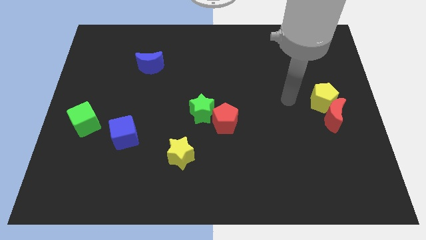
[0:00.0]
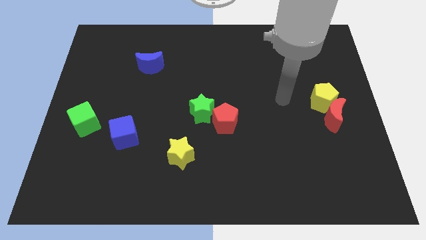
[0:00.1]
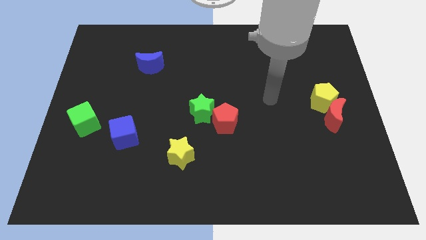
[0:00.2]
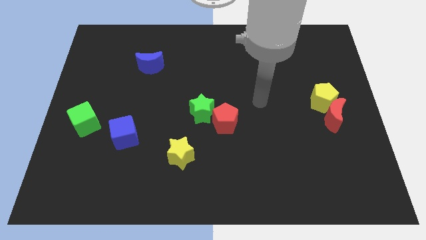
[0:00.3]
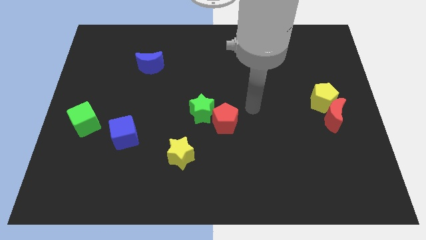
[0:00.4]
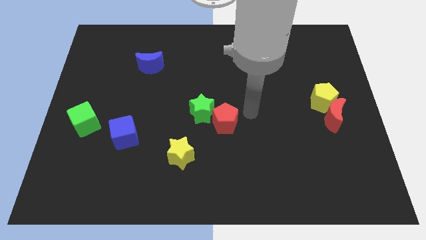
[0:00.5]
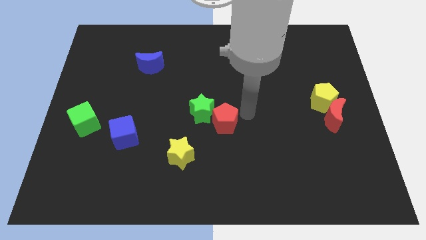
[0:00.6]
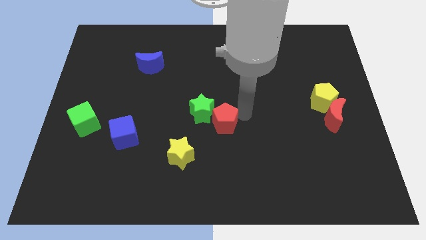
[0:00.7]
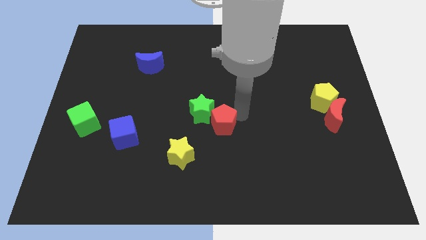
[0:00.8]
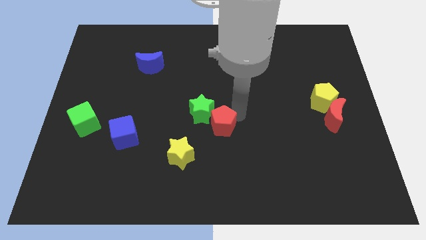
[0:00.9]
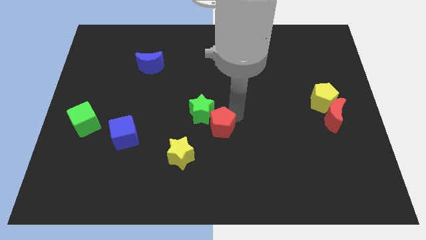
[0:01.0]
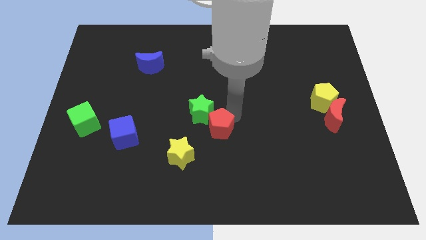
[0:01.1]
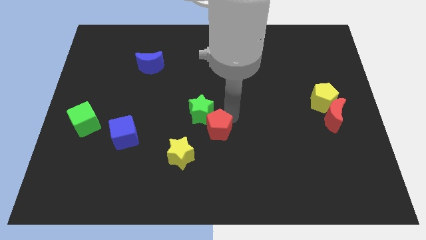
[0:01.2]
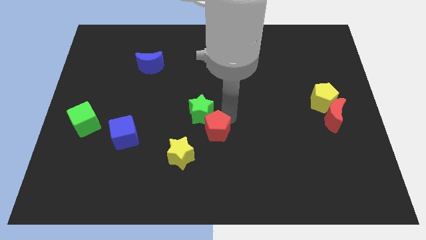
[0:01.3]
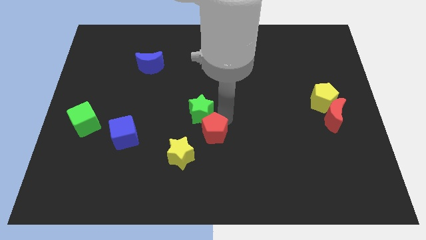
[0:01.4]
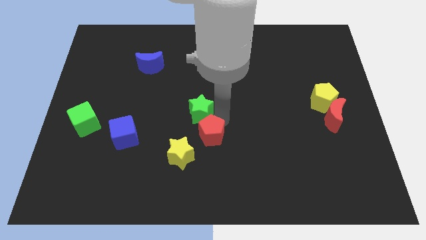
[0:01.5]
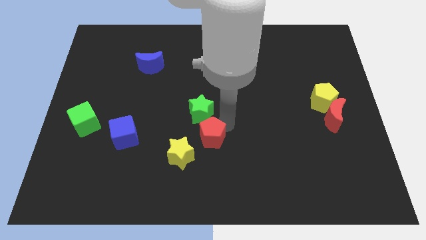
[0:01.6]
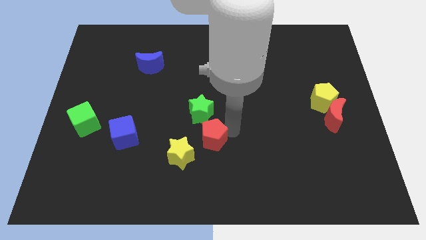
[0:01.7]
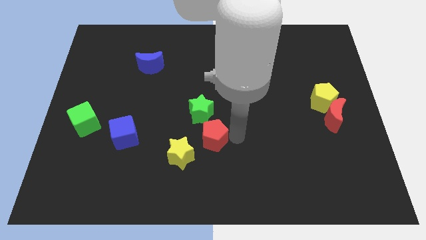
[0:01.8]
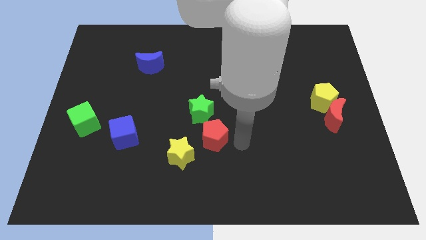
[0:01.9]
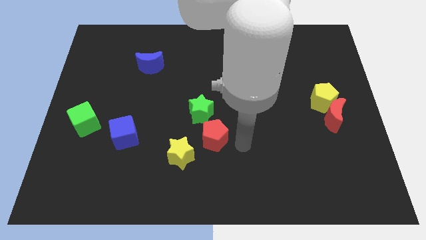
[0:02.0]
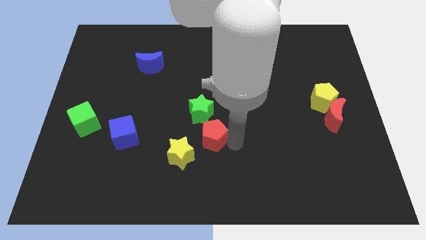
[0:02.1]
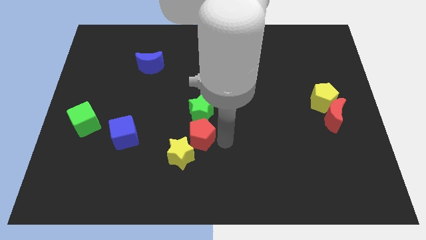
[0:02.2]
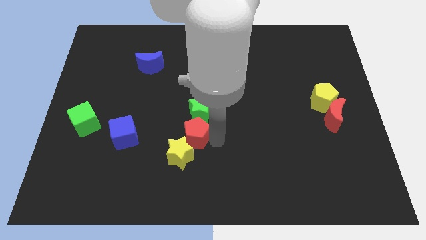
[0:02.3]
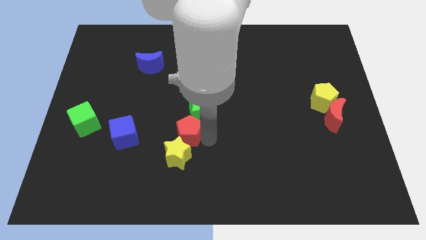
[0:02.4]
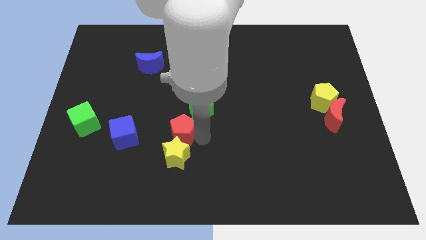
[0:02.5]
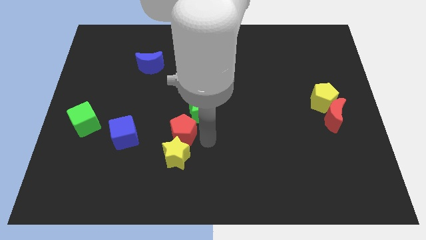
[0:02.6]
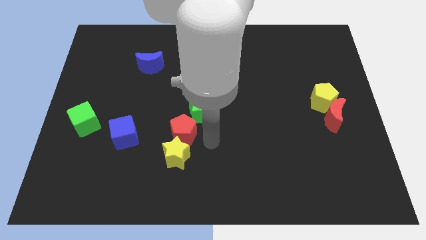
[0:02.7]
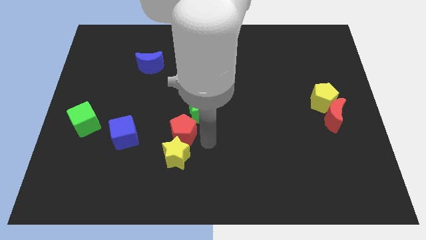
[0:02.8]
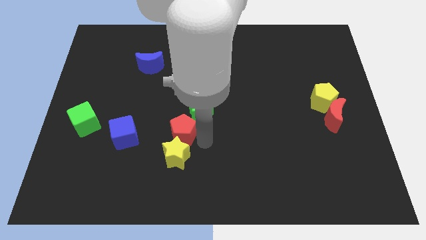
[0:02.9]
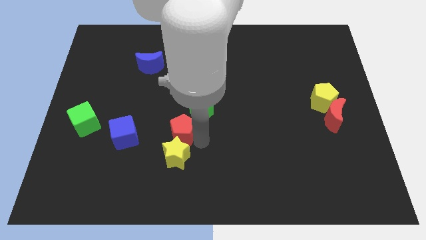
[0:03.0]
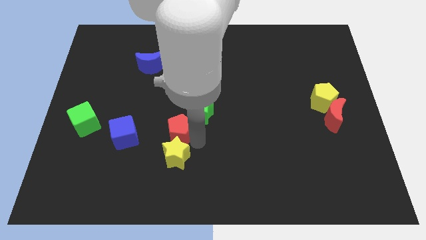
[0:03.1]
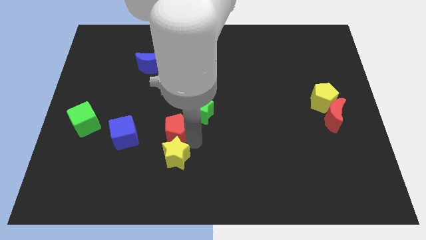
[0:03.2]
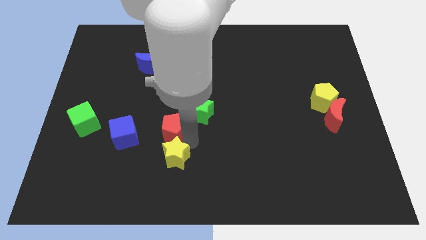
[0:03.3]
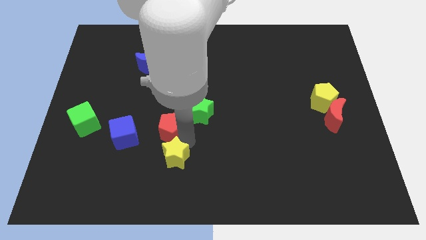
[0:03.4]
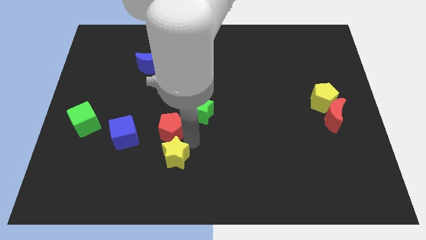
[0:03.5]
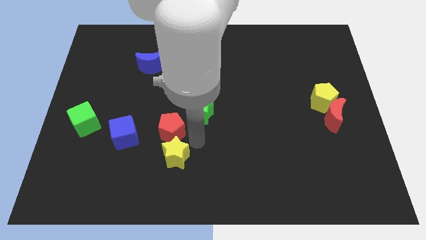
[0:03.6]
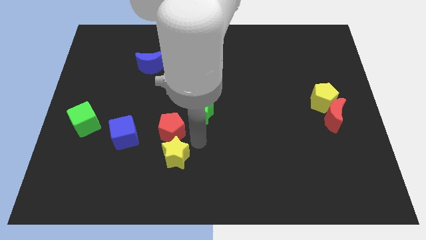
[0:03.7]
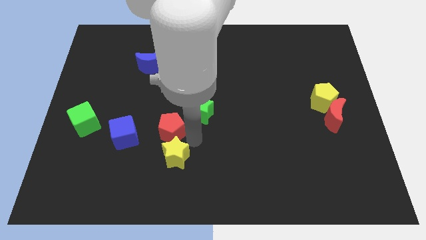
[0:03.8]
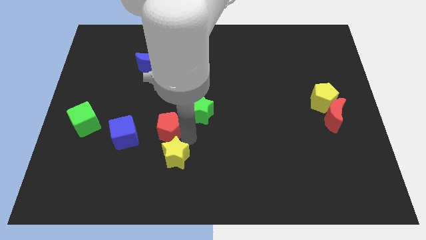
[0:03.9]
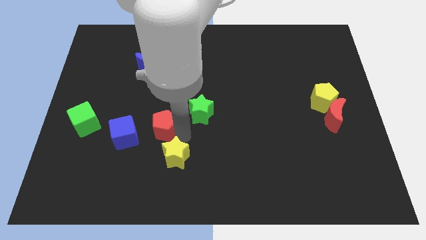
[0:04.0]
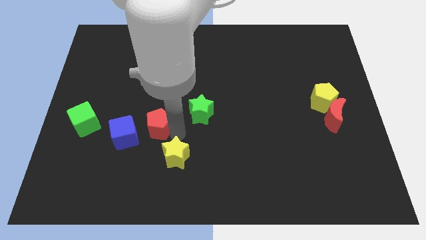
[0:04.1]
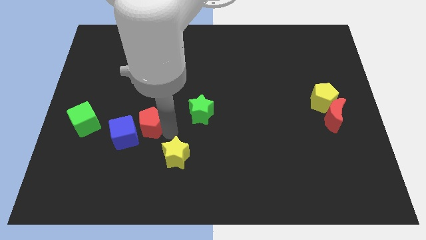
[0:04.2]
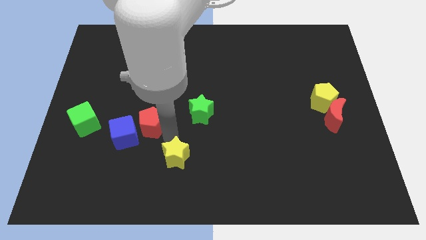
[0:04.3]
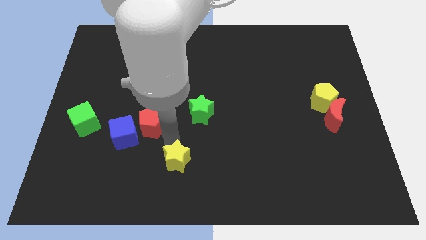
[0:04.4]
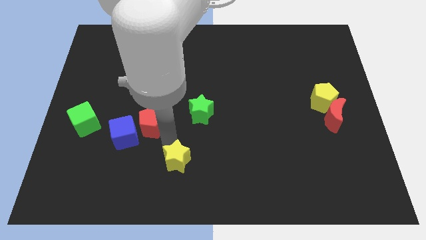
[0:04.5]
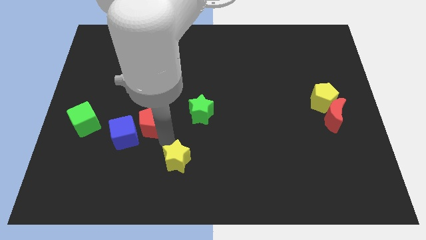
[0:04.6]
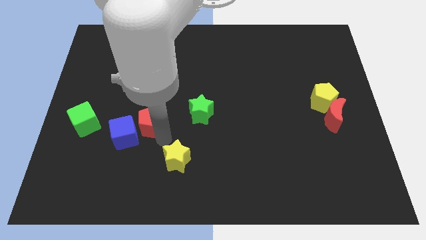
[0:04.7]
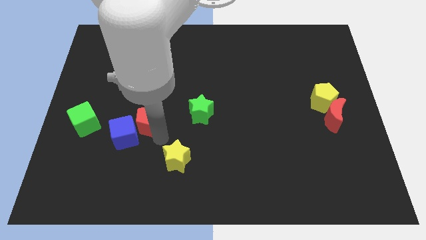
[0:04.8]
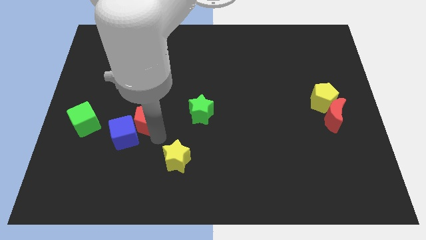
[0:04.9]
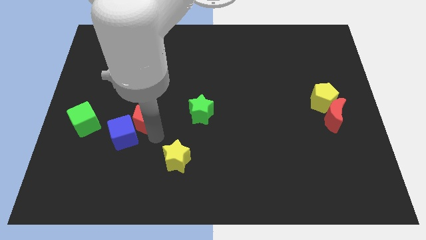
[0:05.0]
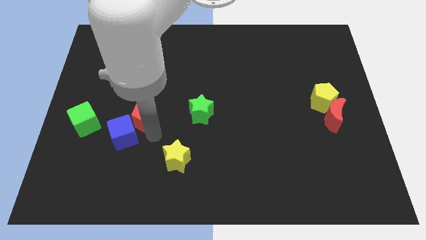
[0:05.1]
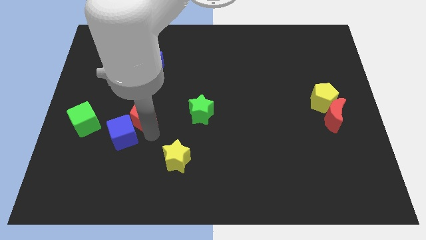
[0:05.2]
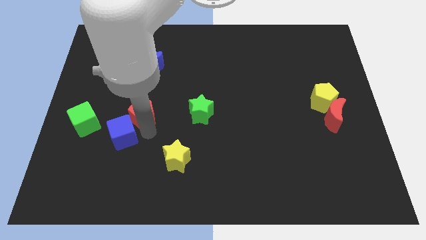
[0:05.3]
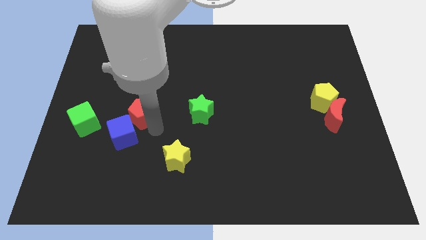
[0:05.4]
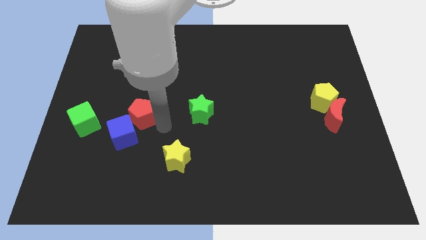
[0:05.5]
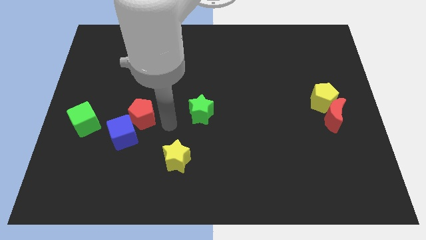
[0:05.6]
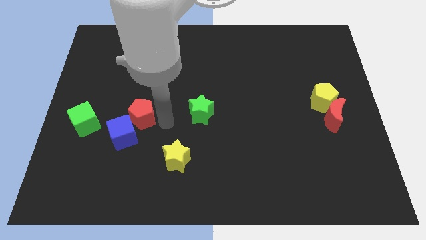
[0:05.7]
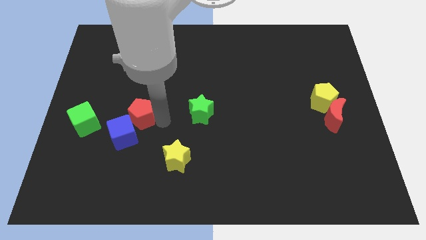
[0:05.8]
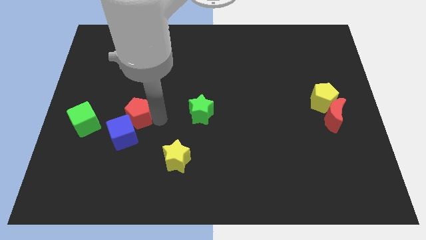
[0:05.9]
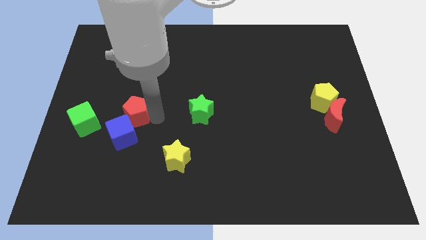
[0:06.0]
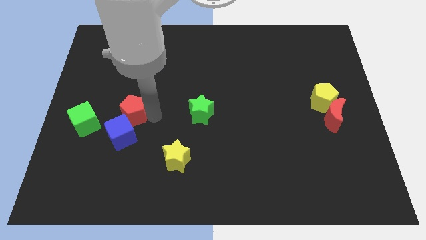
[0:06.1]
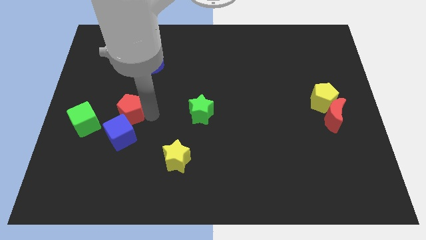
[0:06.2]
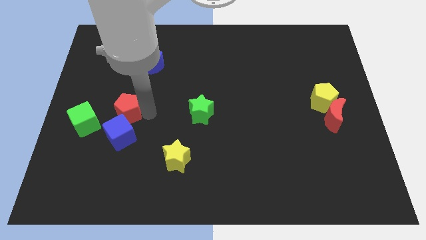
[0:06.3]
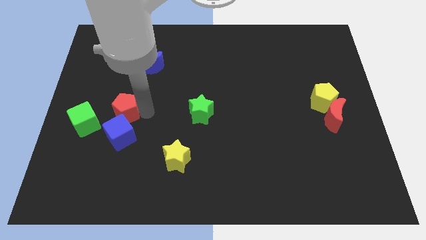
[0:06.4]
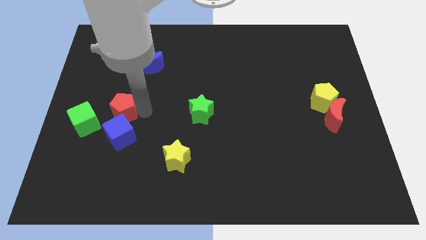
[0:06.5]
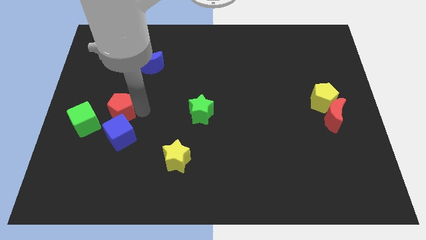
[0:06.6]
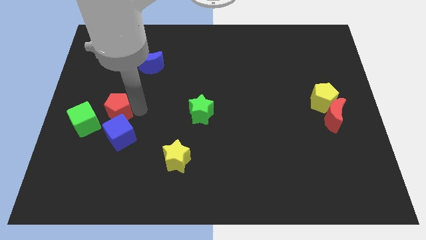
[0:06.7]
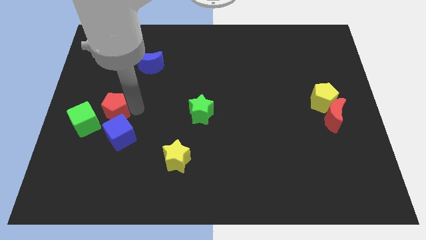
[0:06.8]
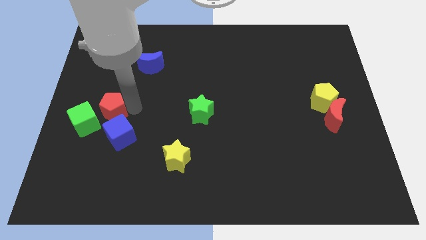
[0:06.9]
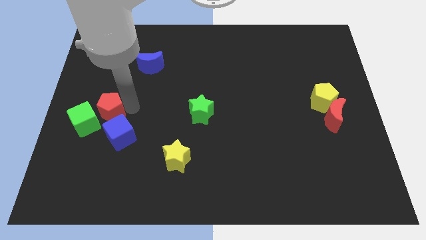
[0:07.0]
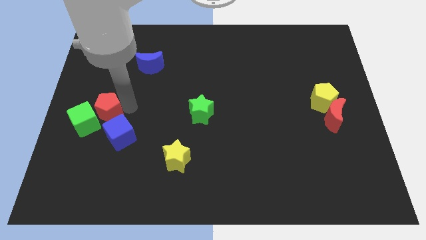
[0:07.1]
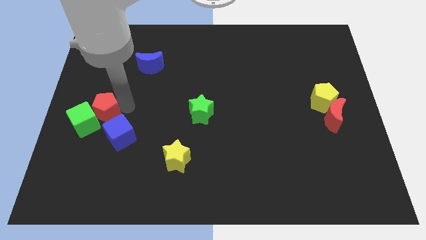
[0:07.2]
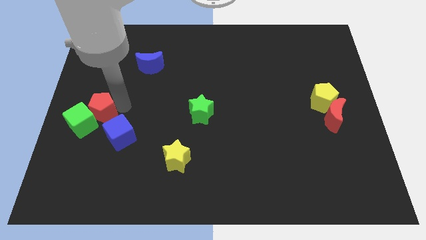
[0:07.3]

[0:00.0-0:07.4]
put the red pentagon to the left side of the board

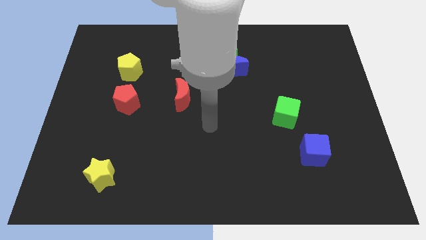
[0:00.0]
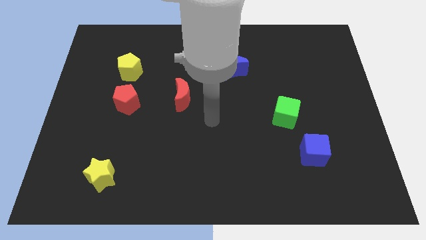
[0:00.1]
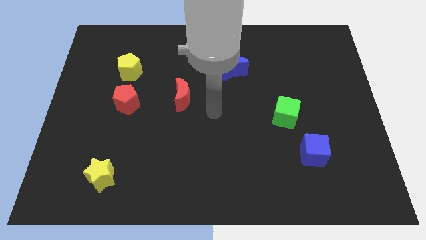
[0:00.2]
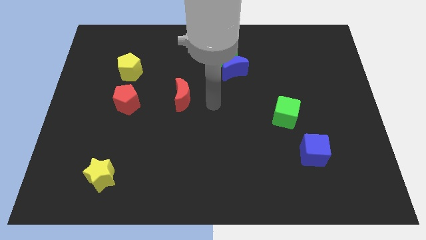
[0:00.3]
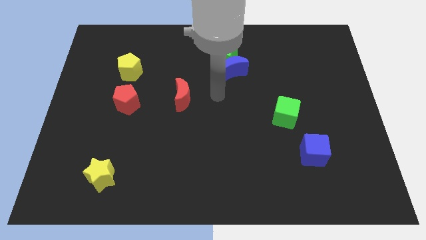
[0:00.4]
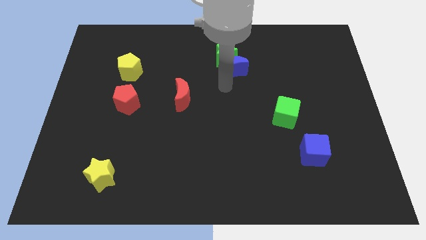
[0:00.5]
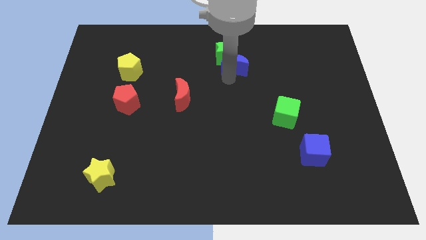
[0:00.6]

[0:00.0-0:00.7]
put the green star to the top side
